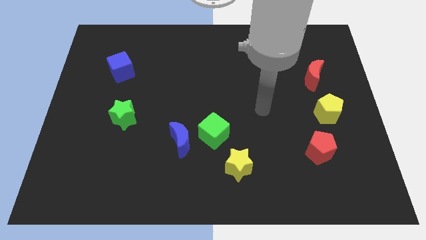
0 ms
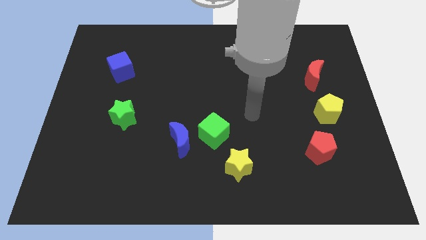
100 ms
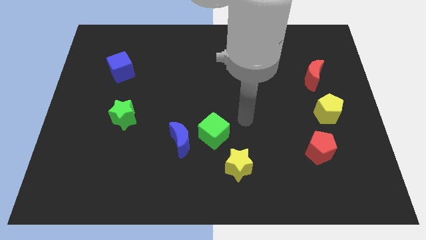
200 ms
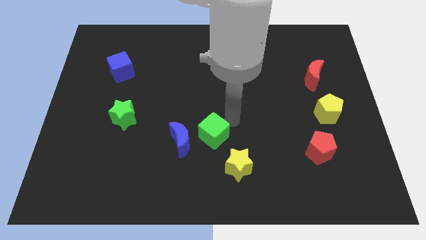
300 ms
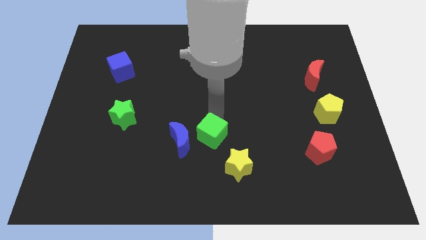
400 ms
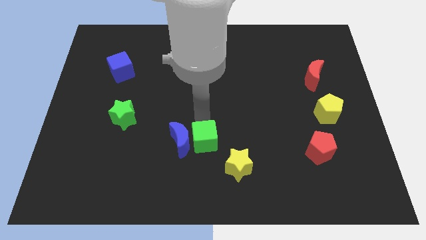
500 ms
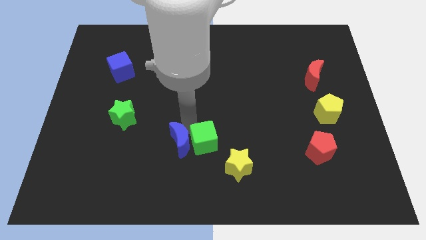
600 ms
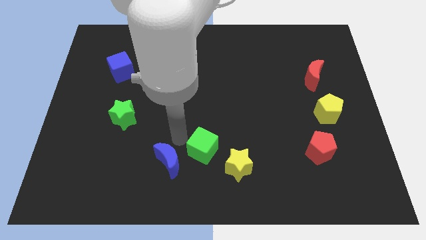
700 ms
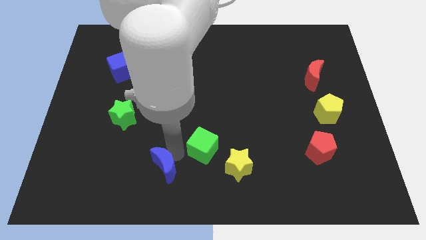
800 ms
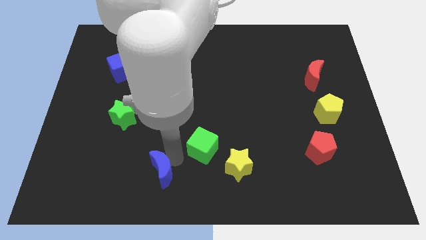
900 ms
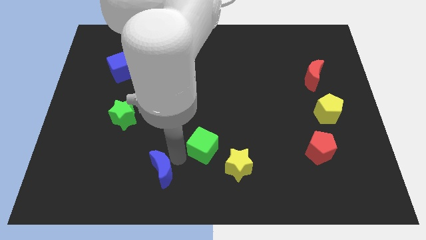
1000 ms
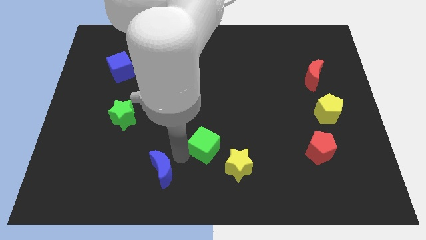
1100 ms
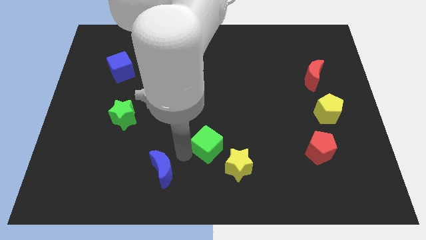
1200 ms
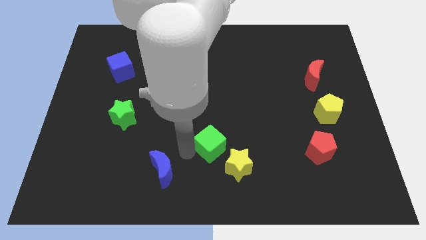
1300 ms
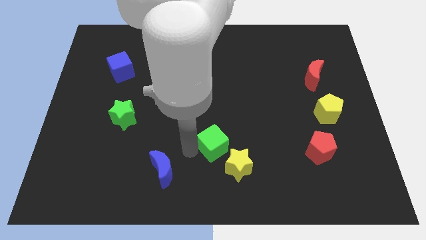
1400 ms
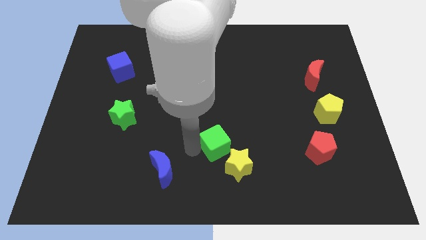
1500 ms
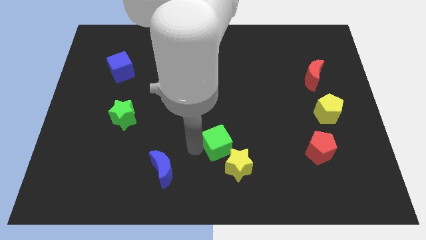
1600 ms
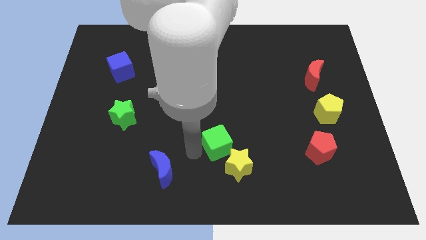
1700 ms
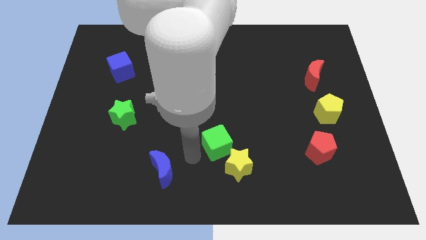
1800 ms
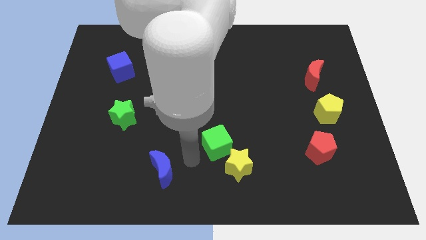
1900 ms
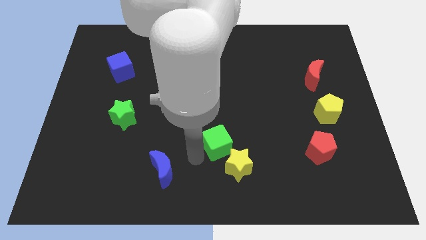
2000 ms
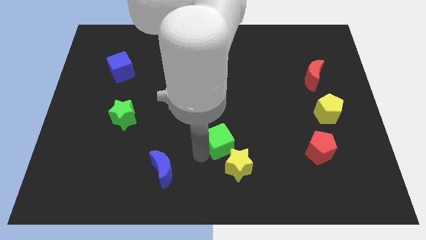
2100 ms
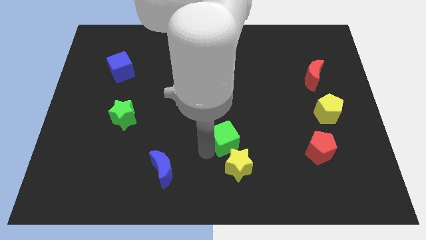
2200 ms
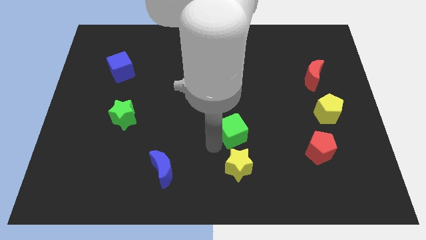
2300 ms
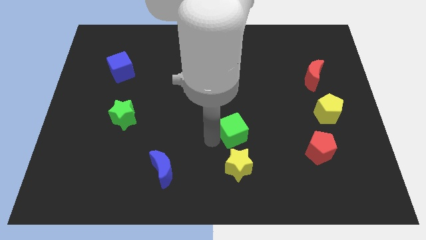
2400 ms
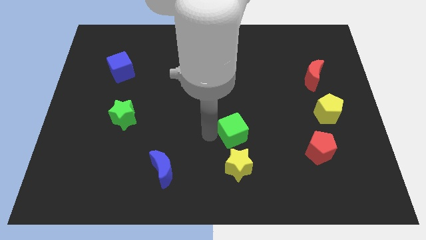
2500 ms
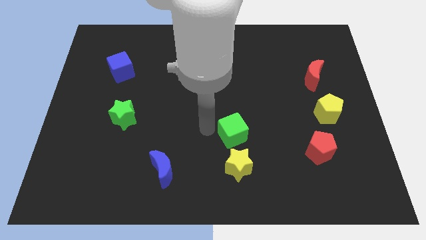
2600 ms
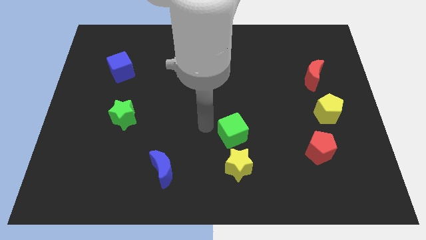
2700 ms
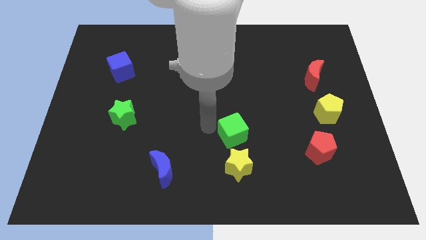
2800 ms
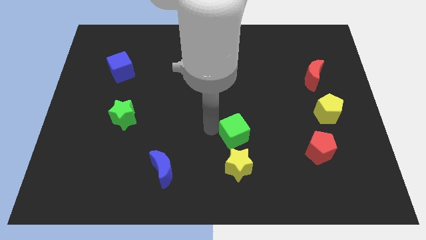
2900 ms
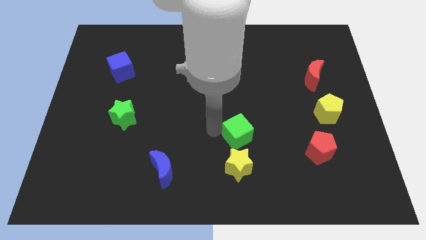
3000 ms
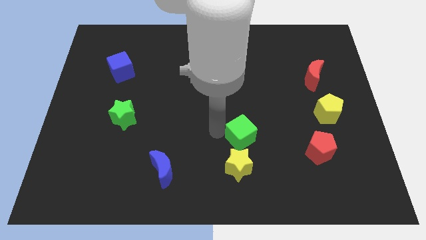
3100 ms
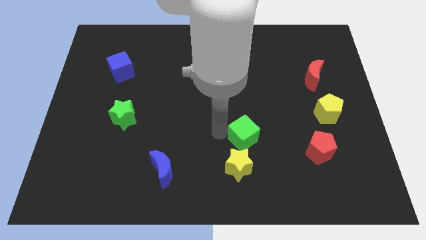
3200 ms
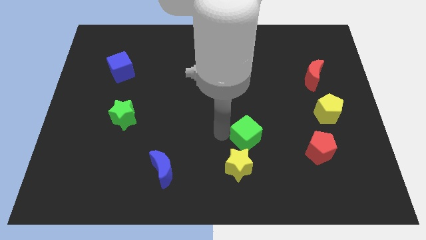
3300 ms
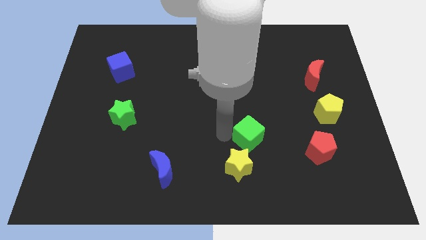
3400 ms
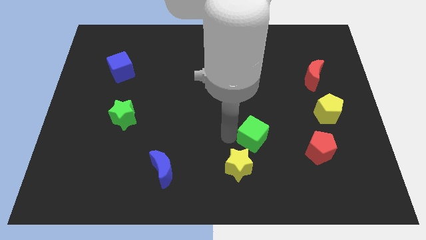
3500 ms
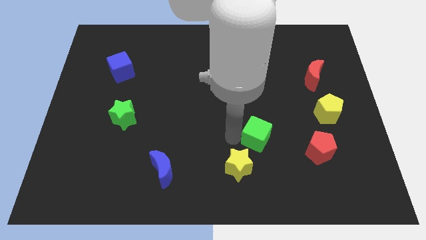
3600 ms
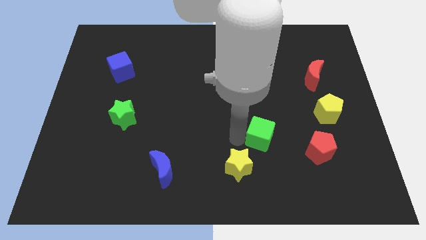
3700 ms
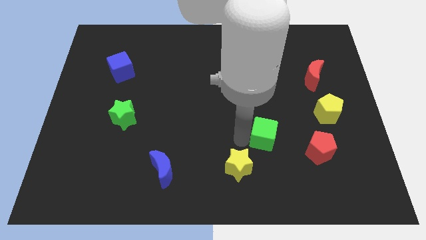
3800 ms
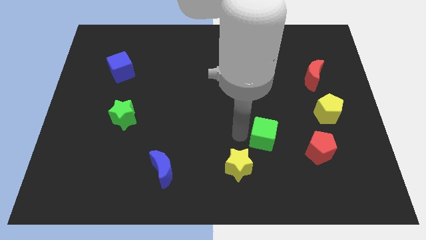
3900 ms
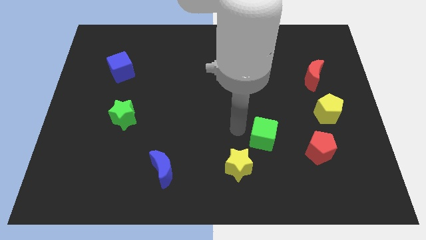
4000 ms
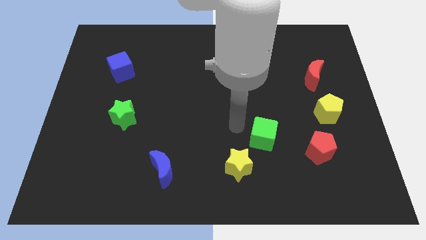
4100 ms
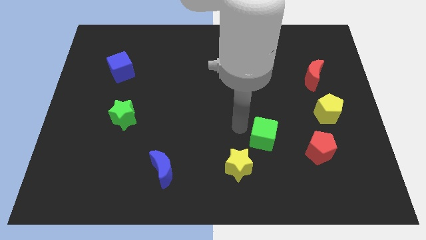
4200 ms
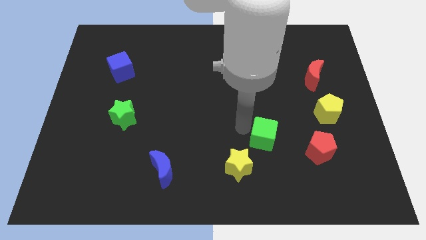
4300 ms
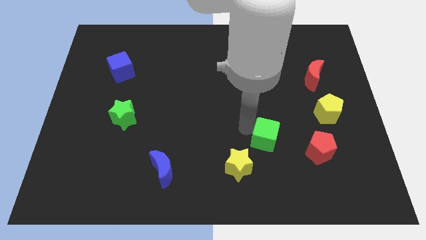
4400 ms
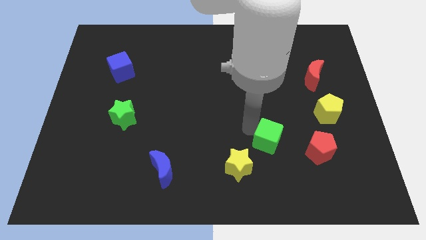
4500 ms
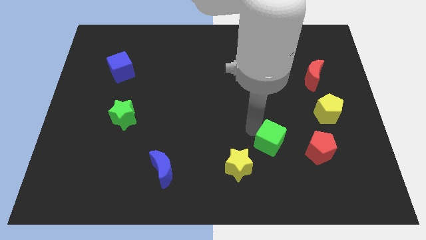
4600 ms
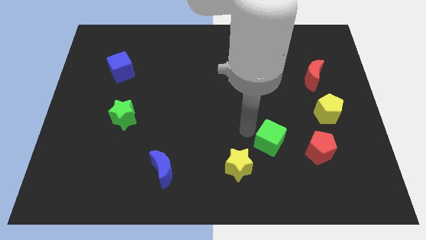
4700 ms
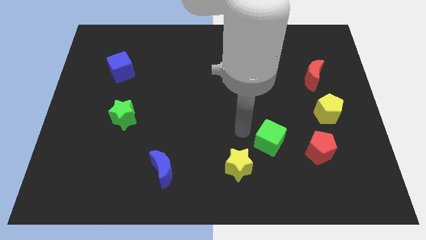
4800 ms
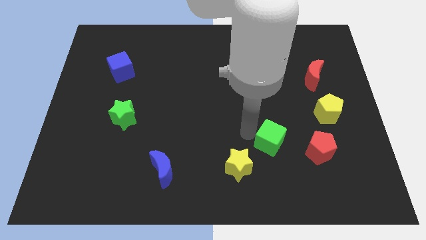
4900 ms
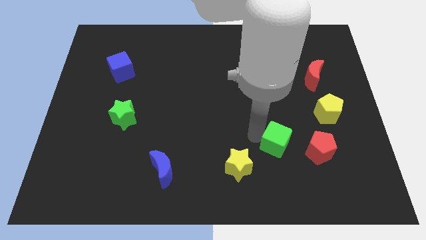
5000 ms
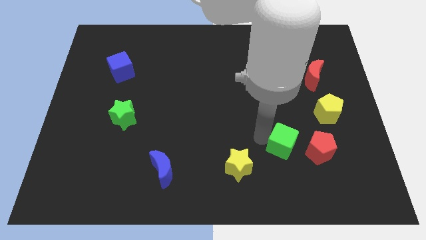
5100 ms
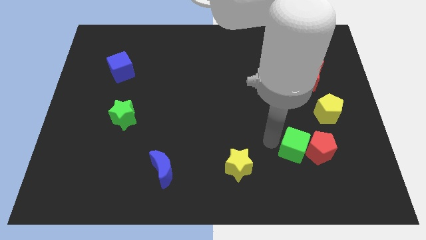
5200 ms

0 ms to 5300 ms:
slide the green cube next to the red pentagon

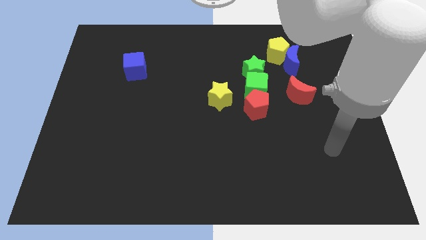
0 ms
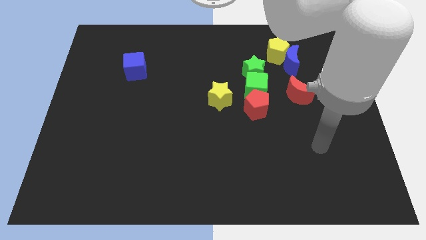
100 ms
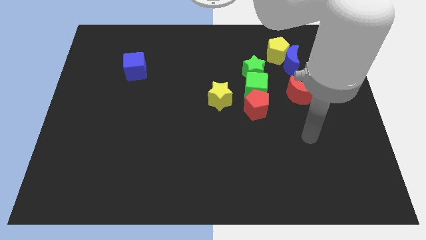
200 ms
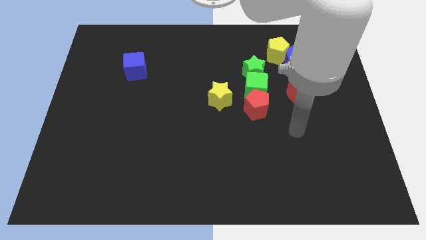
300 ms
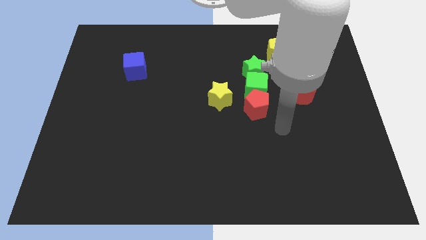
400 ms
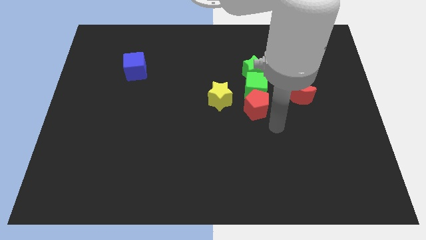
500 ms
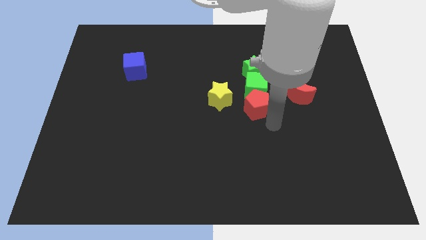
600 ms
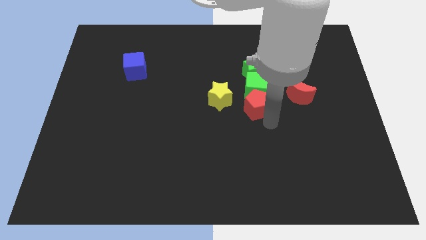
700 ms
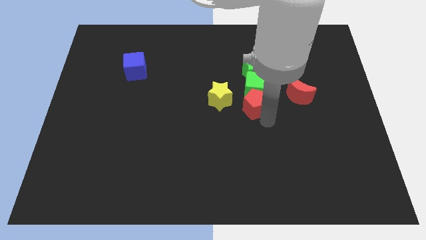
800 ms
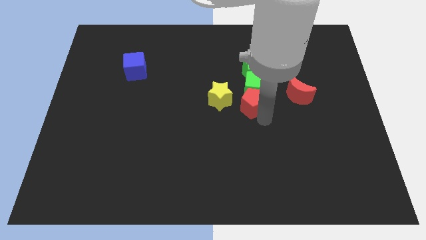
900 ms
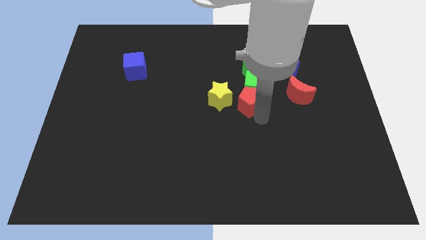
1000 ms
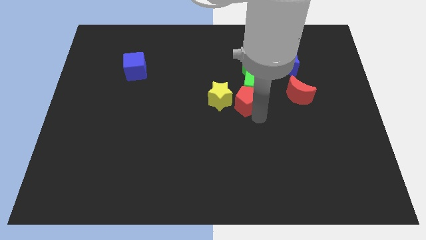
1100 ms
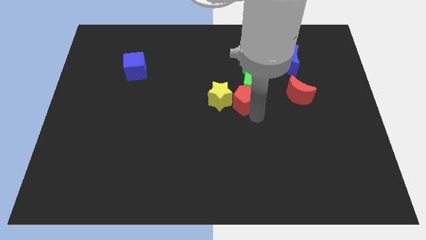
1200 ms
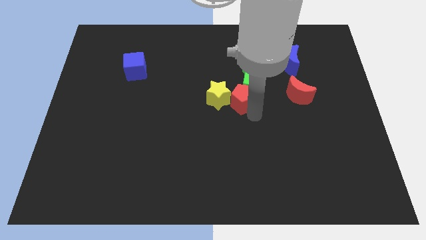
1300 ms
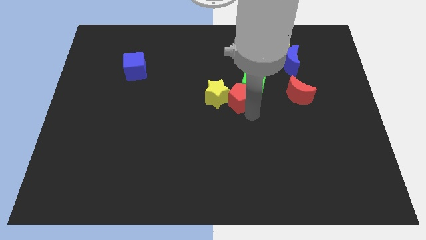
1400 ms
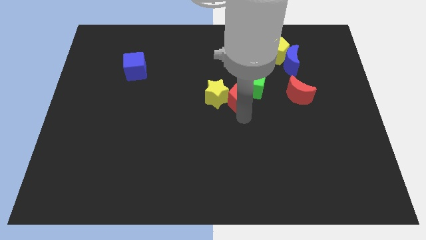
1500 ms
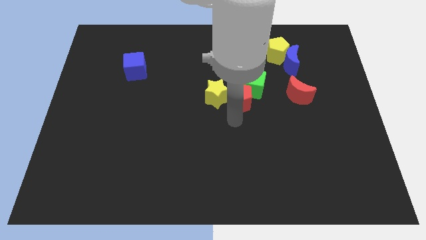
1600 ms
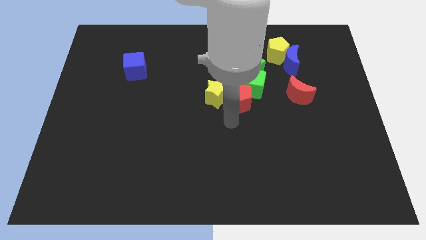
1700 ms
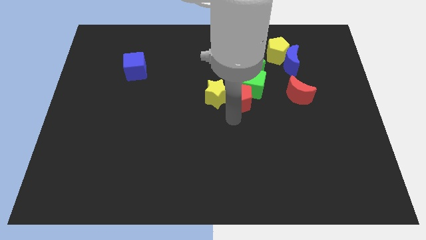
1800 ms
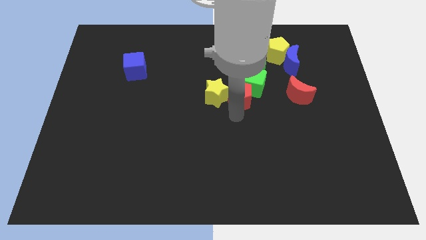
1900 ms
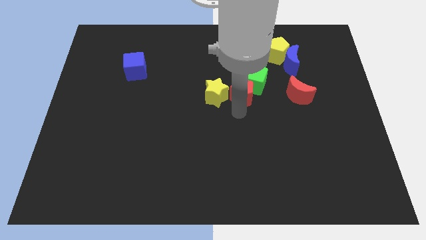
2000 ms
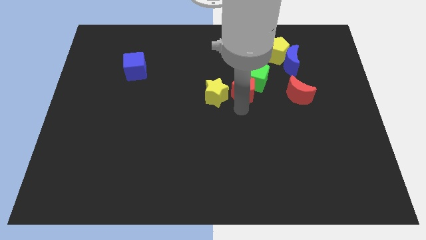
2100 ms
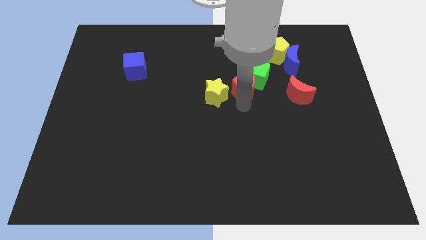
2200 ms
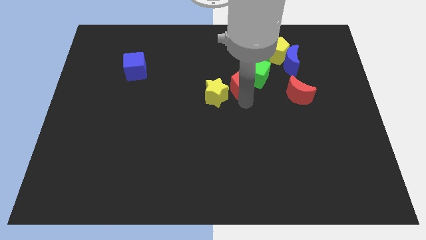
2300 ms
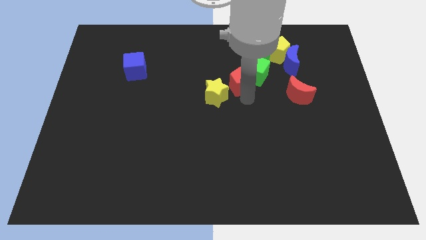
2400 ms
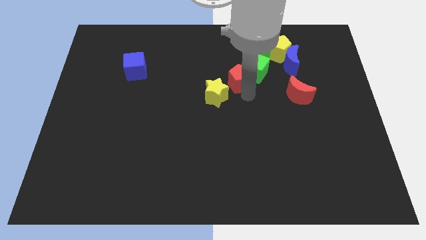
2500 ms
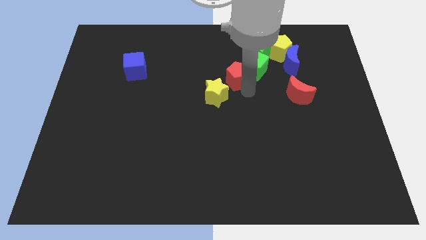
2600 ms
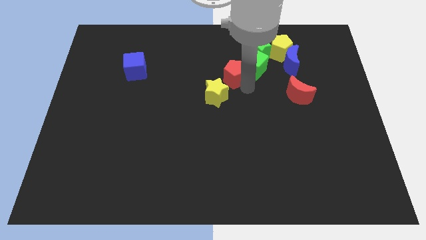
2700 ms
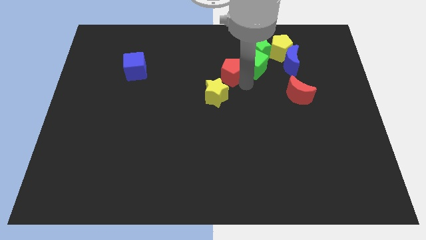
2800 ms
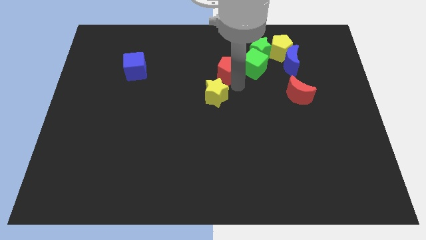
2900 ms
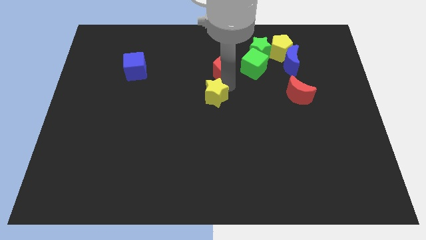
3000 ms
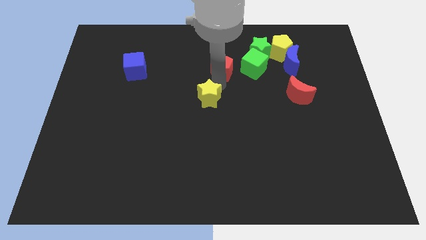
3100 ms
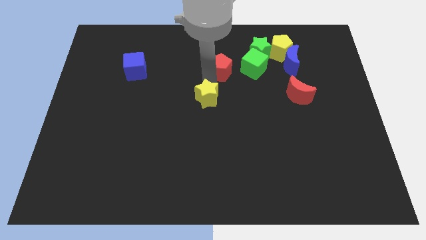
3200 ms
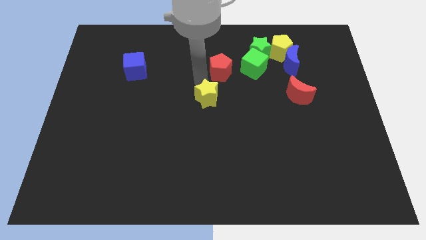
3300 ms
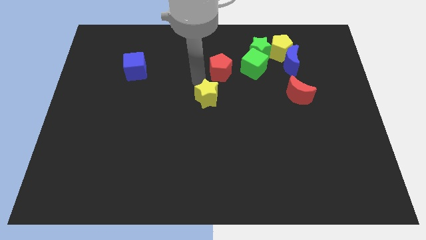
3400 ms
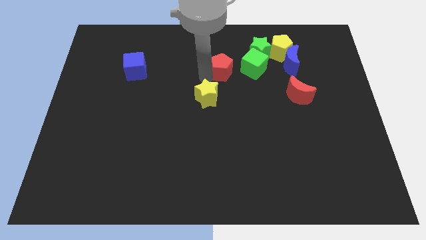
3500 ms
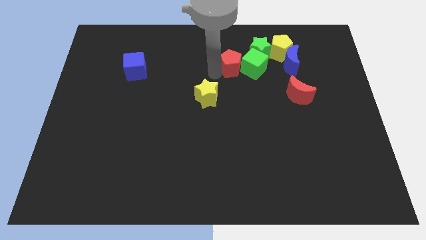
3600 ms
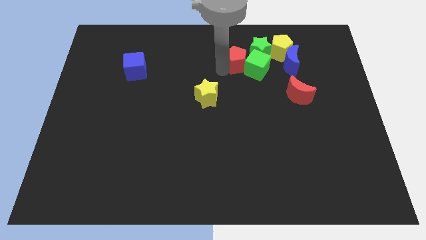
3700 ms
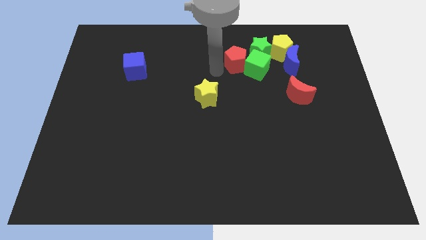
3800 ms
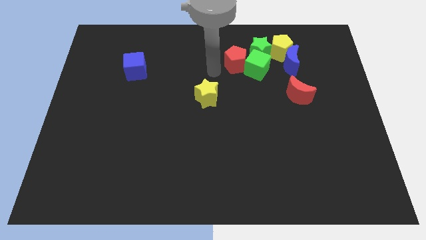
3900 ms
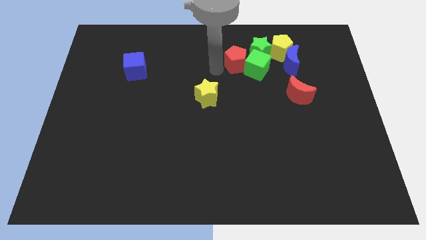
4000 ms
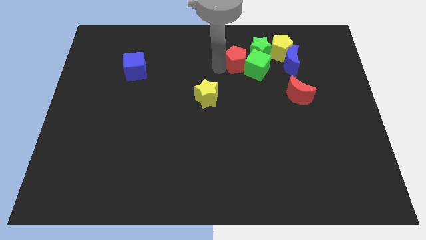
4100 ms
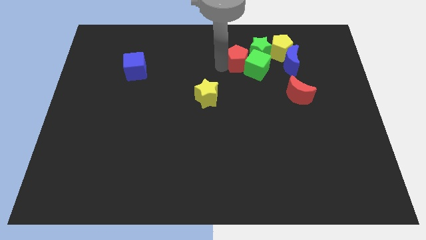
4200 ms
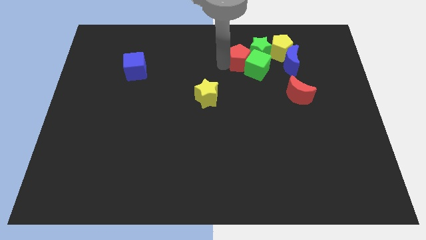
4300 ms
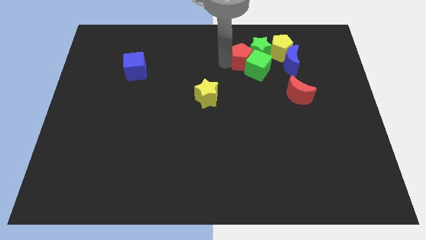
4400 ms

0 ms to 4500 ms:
put the red pentagon towards the green star
